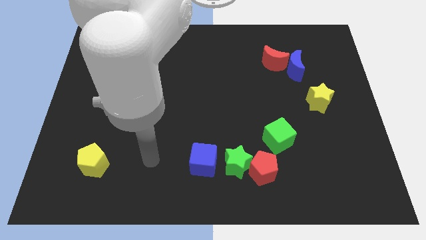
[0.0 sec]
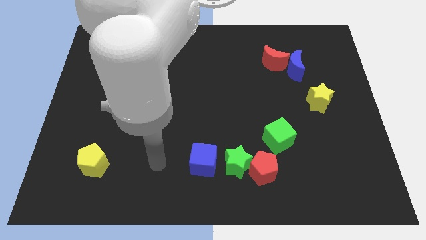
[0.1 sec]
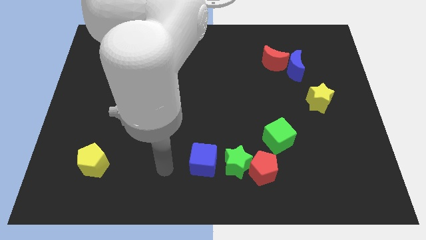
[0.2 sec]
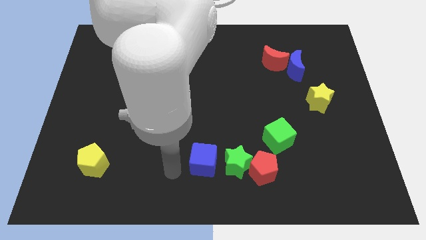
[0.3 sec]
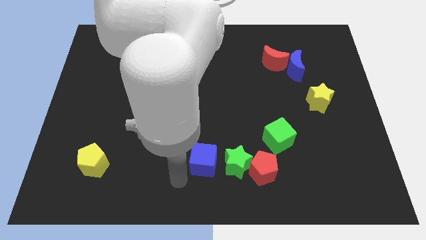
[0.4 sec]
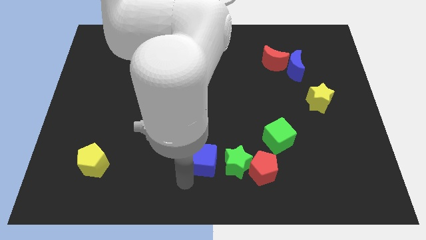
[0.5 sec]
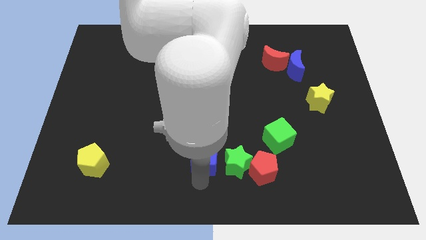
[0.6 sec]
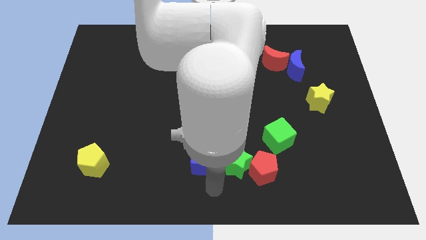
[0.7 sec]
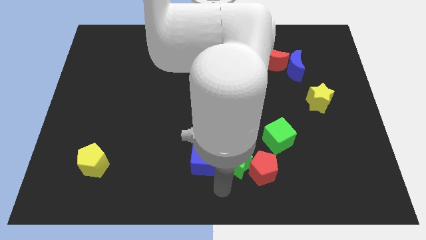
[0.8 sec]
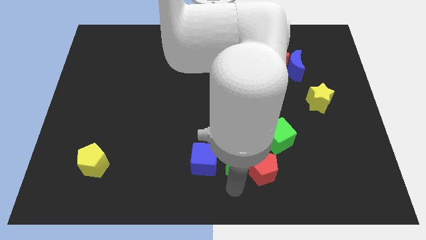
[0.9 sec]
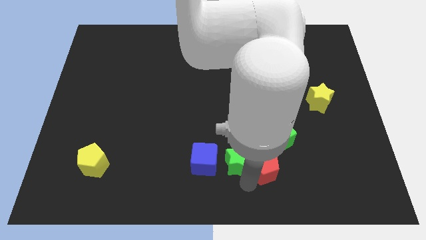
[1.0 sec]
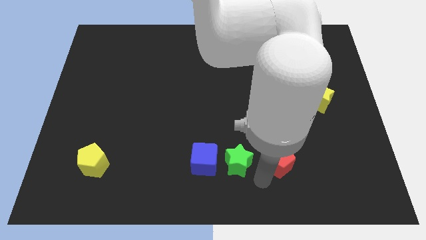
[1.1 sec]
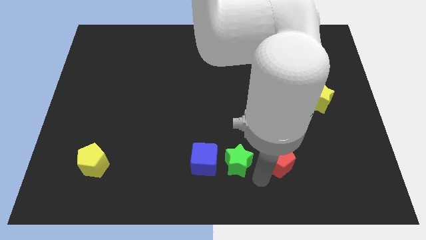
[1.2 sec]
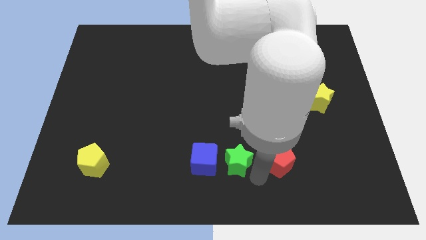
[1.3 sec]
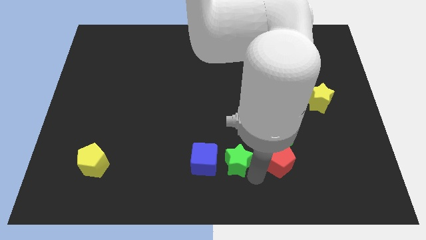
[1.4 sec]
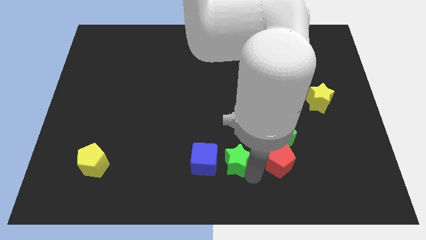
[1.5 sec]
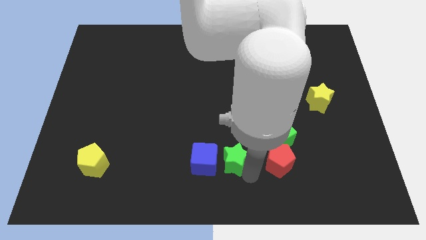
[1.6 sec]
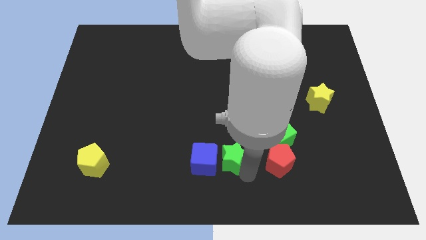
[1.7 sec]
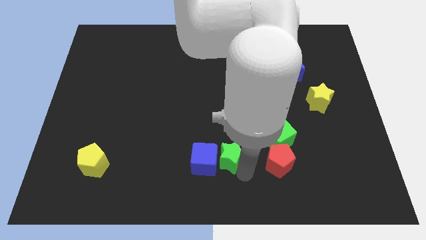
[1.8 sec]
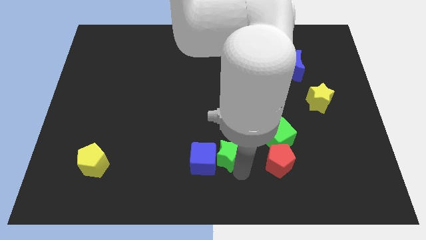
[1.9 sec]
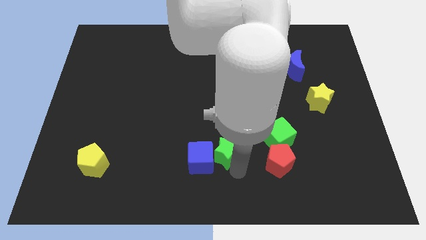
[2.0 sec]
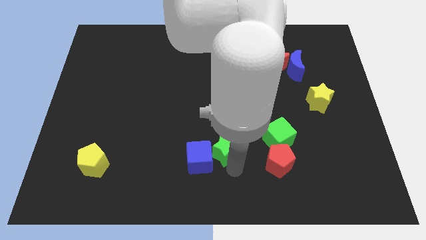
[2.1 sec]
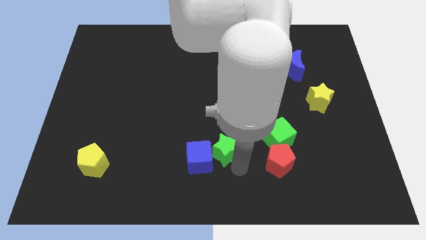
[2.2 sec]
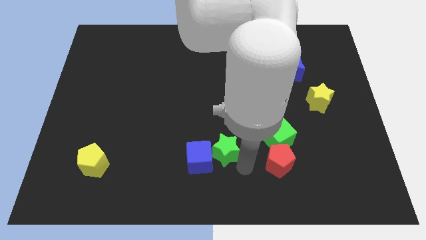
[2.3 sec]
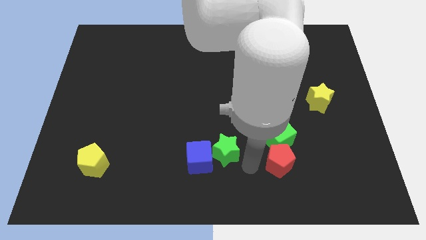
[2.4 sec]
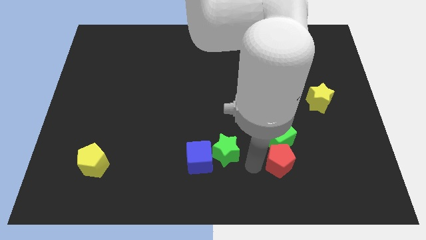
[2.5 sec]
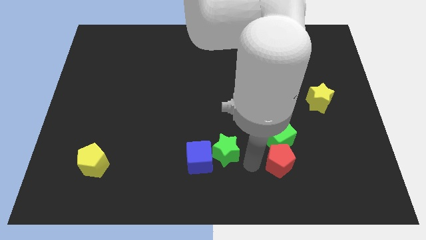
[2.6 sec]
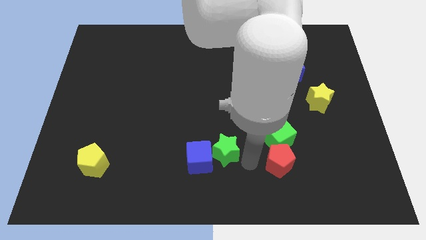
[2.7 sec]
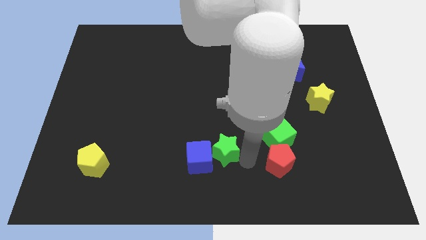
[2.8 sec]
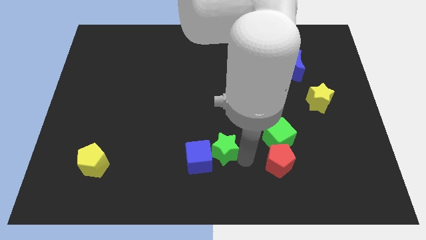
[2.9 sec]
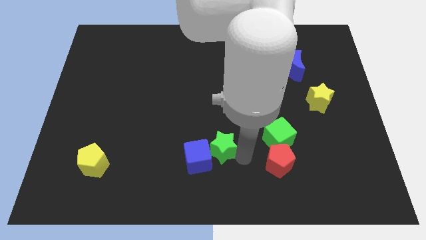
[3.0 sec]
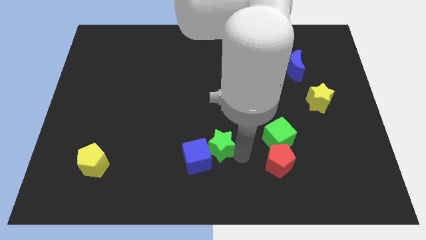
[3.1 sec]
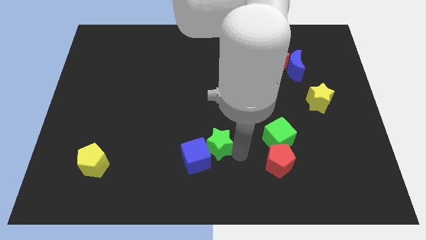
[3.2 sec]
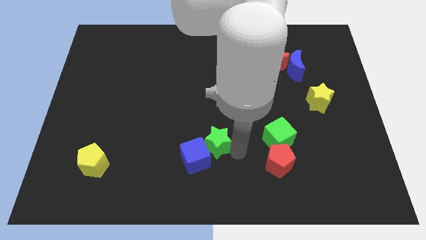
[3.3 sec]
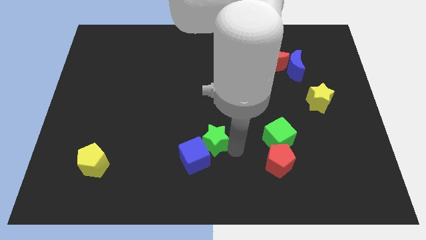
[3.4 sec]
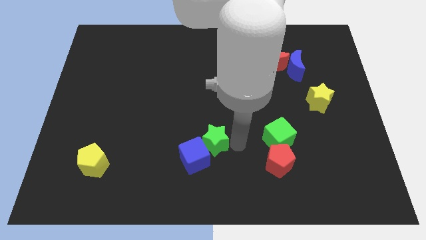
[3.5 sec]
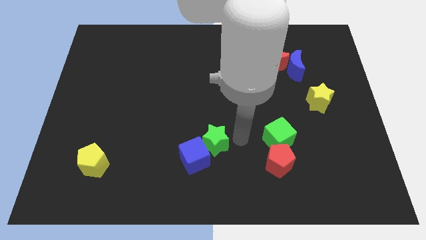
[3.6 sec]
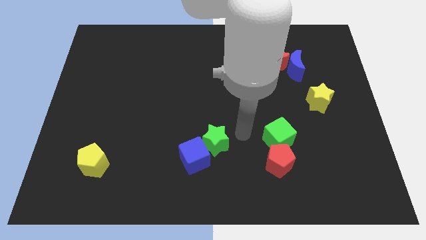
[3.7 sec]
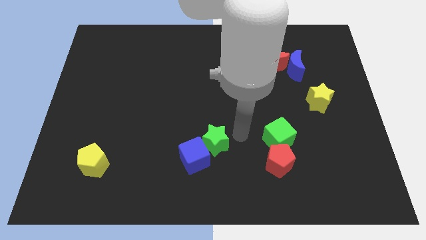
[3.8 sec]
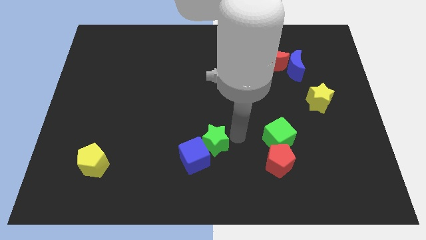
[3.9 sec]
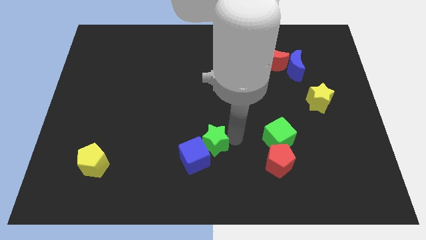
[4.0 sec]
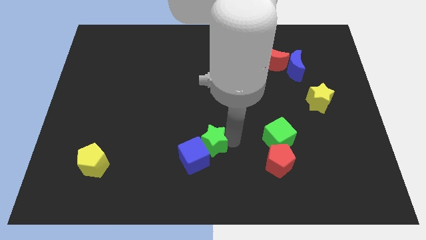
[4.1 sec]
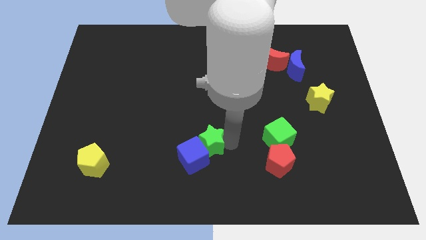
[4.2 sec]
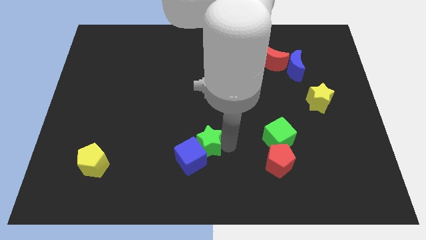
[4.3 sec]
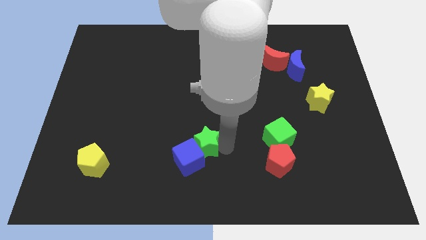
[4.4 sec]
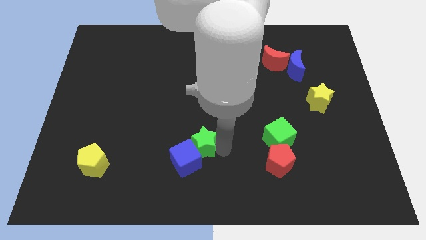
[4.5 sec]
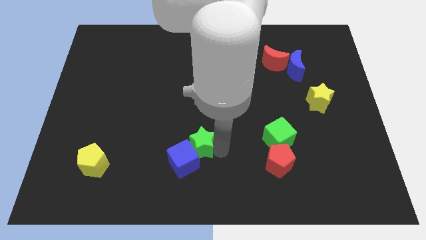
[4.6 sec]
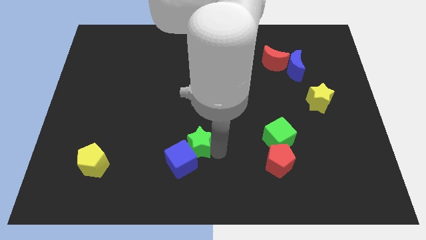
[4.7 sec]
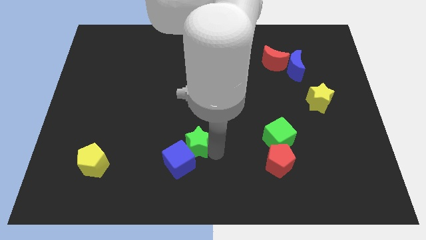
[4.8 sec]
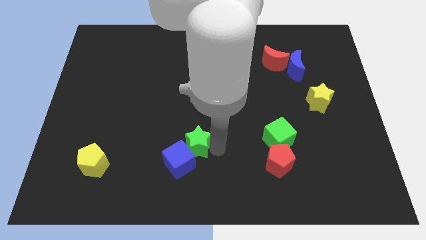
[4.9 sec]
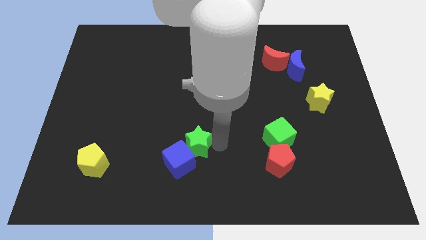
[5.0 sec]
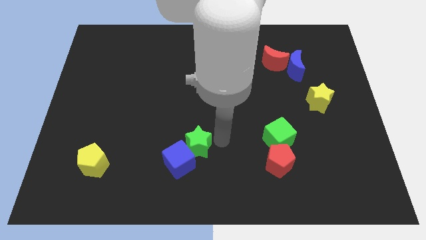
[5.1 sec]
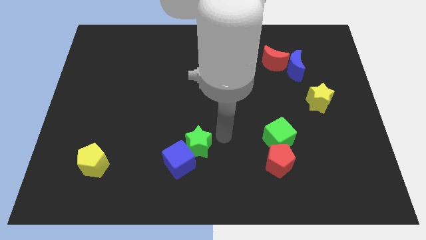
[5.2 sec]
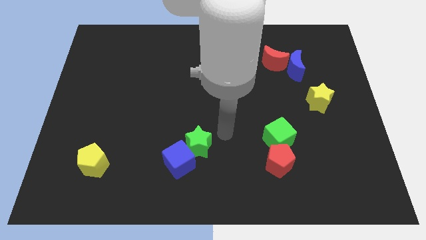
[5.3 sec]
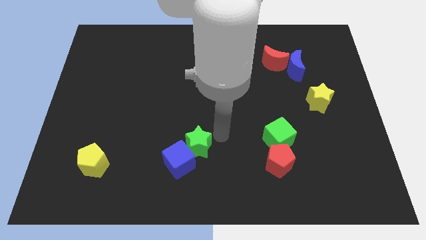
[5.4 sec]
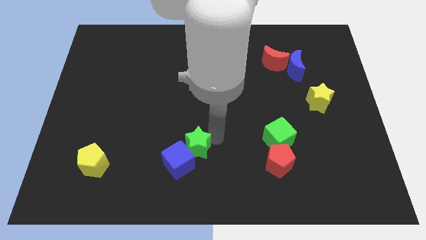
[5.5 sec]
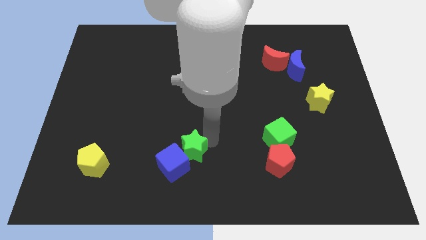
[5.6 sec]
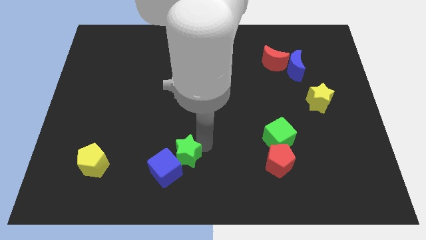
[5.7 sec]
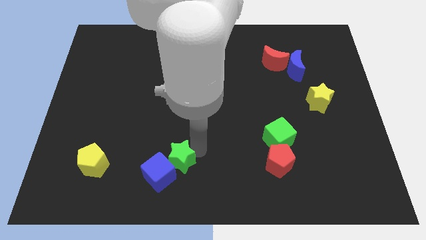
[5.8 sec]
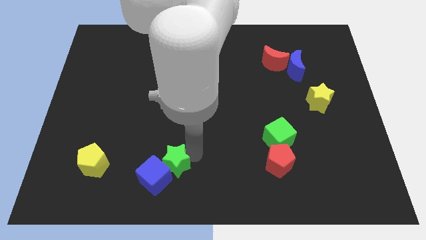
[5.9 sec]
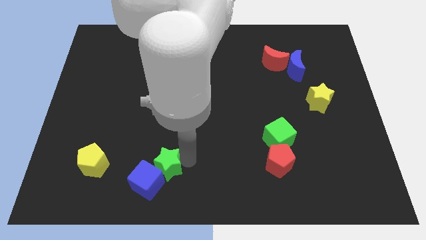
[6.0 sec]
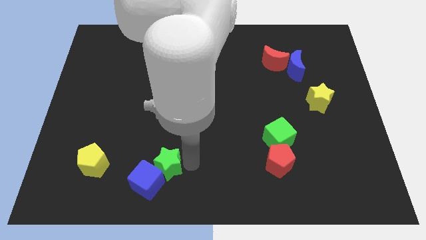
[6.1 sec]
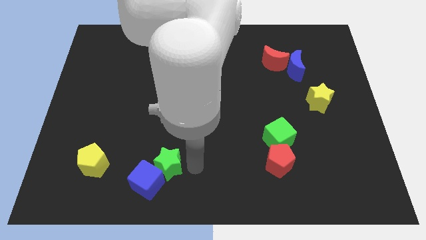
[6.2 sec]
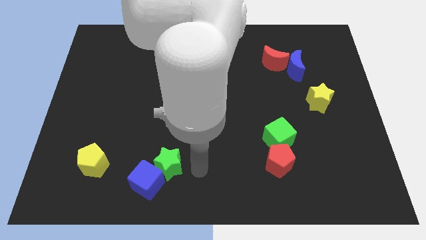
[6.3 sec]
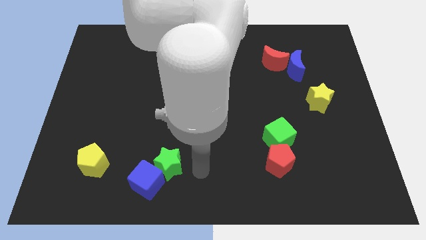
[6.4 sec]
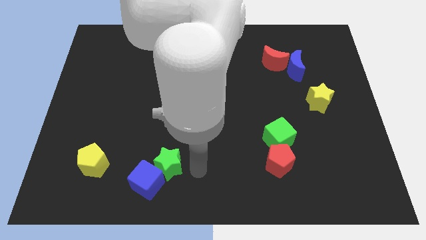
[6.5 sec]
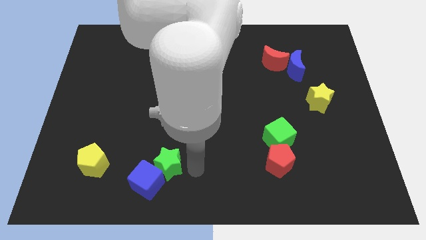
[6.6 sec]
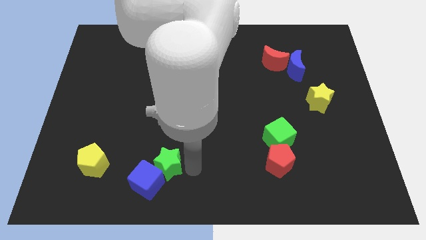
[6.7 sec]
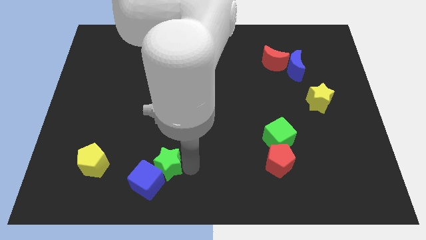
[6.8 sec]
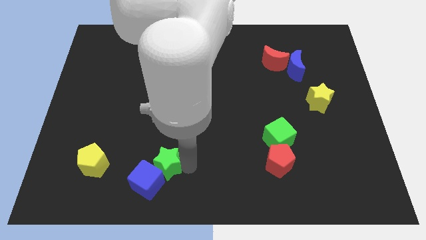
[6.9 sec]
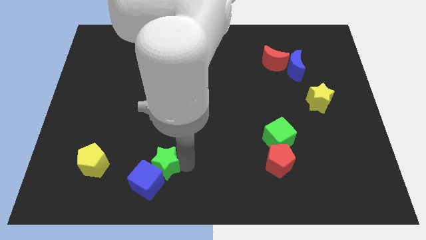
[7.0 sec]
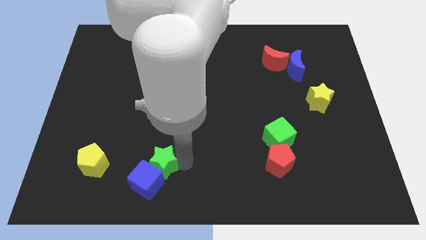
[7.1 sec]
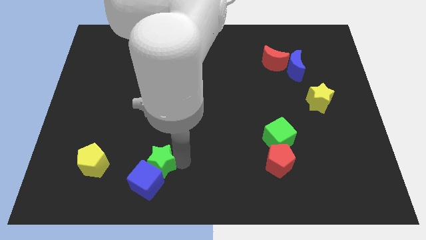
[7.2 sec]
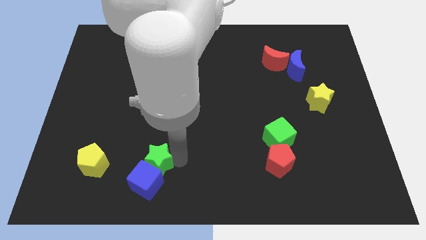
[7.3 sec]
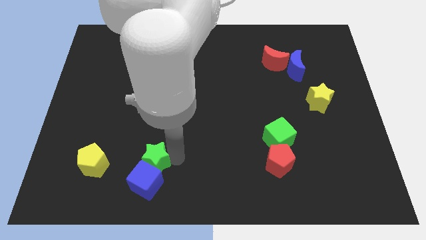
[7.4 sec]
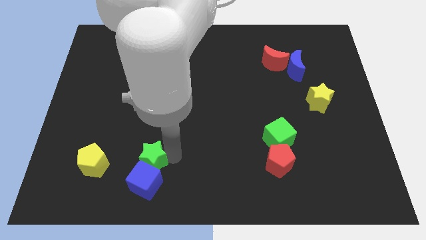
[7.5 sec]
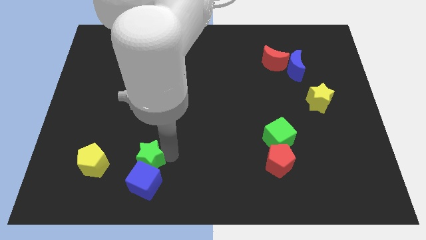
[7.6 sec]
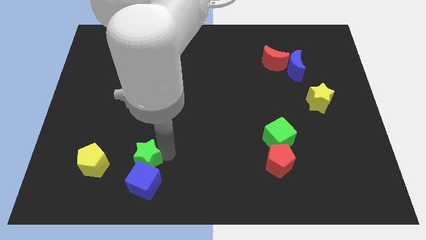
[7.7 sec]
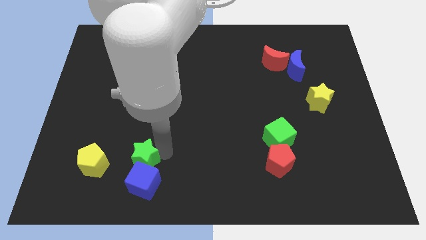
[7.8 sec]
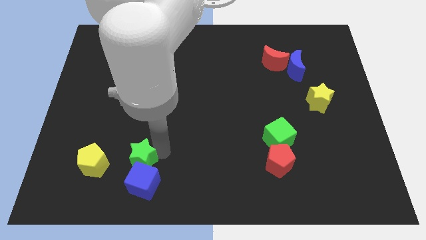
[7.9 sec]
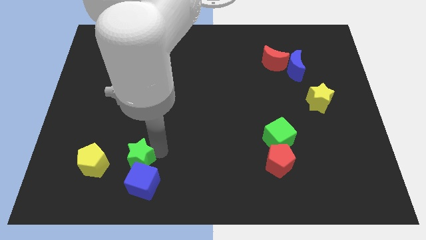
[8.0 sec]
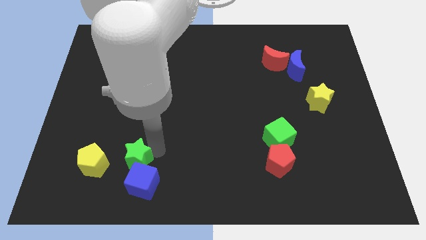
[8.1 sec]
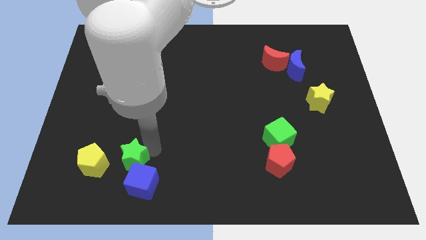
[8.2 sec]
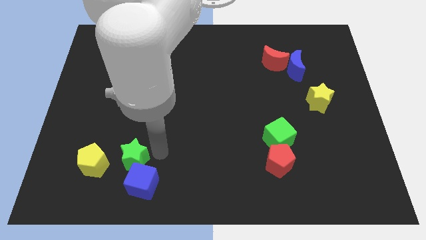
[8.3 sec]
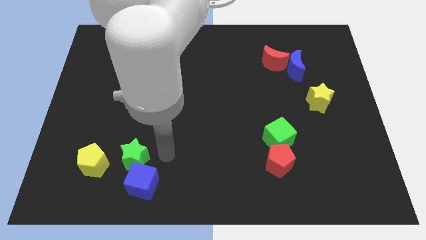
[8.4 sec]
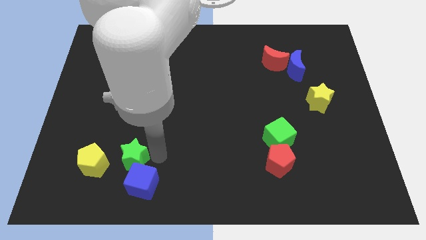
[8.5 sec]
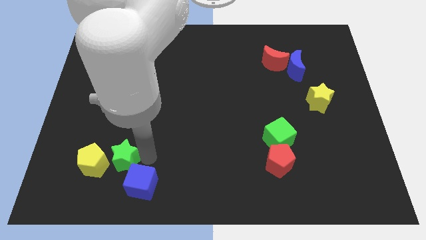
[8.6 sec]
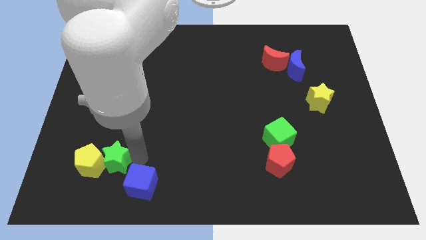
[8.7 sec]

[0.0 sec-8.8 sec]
move the green star towards the yellow pentagon
